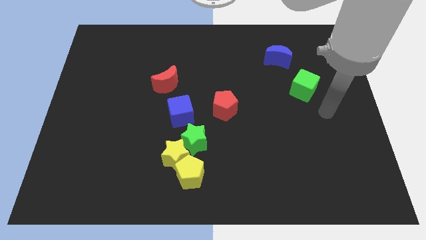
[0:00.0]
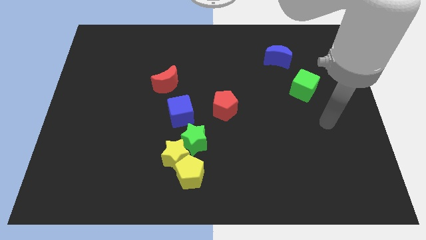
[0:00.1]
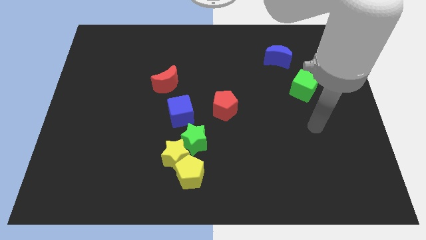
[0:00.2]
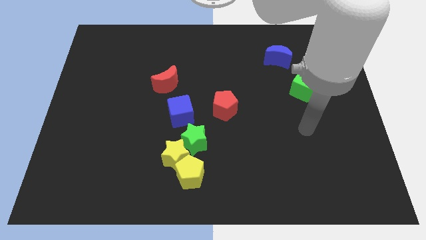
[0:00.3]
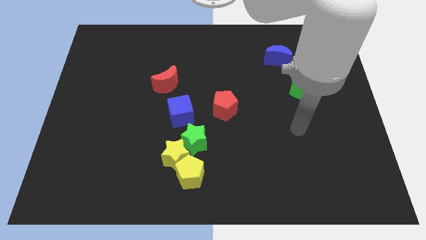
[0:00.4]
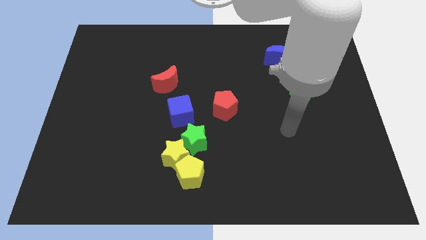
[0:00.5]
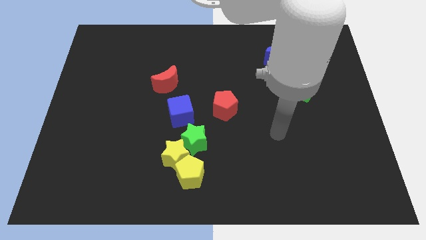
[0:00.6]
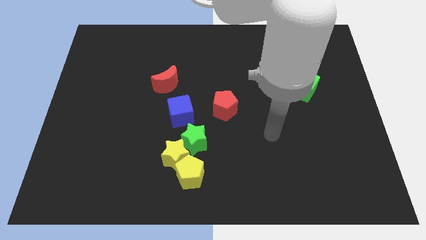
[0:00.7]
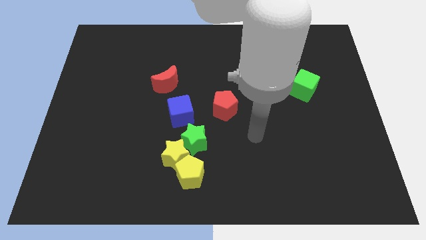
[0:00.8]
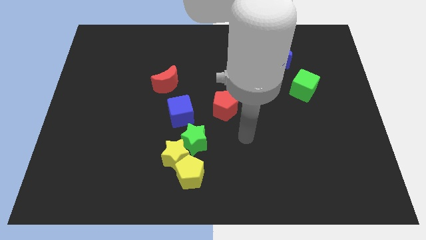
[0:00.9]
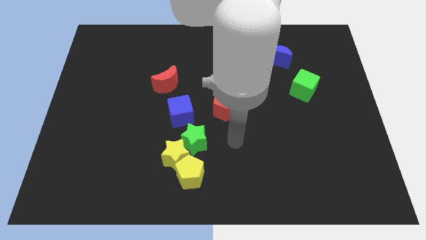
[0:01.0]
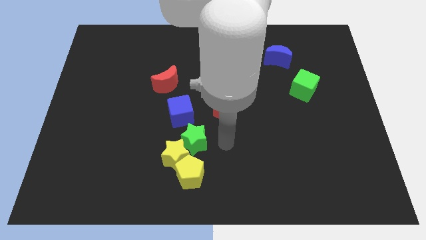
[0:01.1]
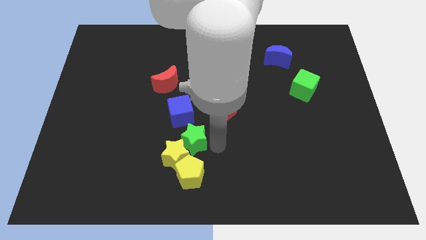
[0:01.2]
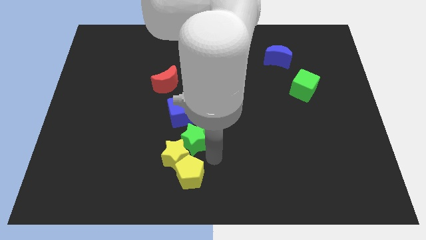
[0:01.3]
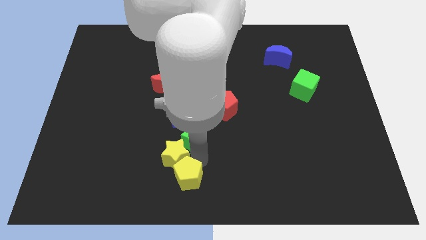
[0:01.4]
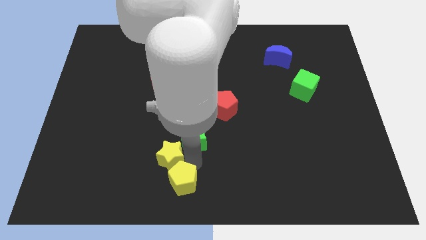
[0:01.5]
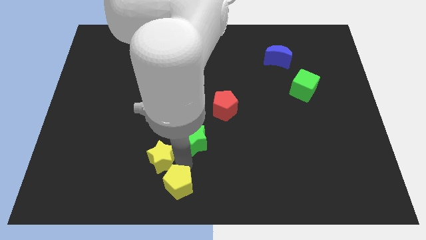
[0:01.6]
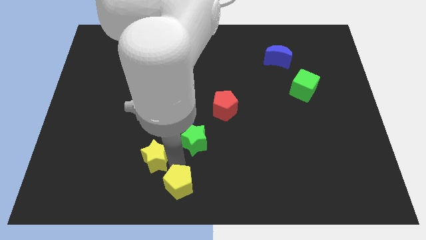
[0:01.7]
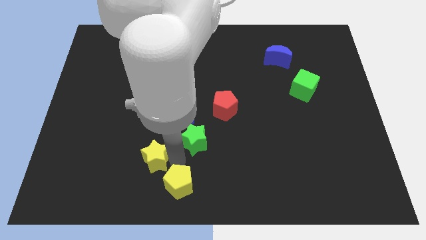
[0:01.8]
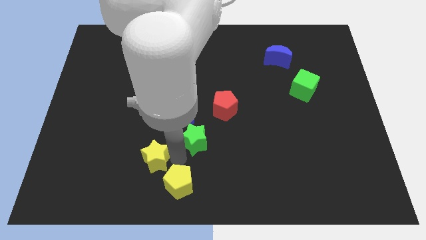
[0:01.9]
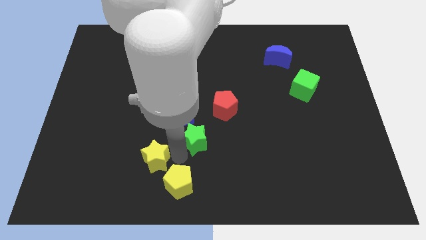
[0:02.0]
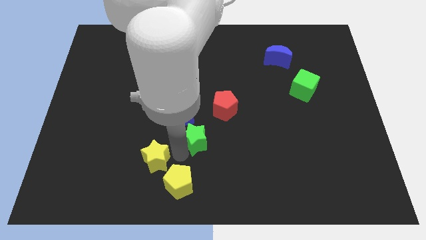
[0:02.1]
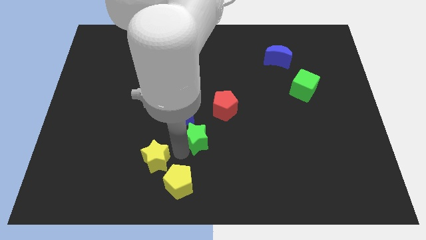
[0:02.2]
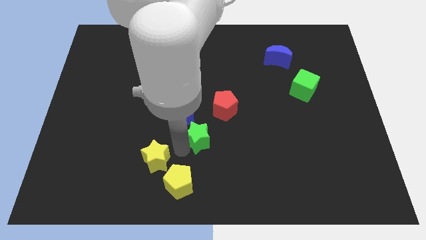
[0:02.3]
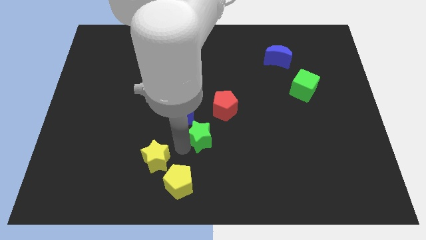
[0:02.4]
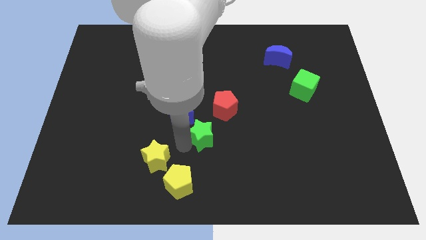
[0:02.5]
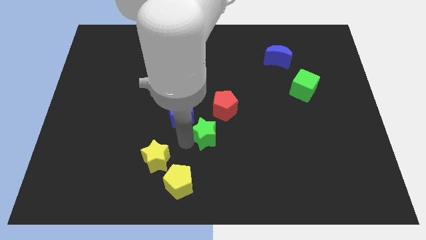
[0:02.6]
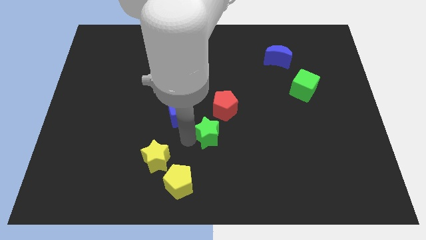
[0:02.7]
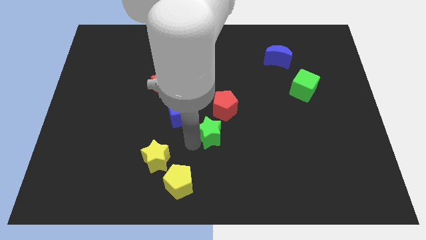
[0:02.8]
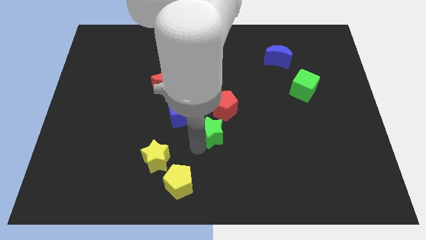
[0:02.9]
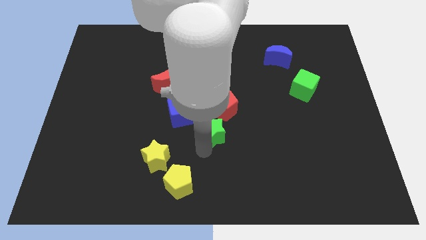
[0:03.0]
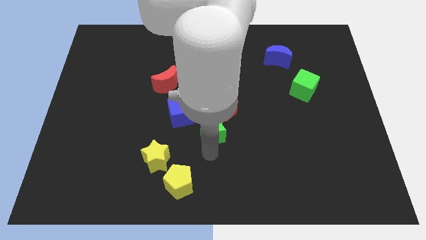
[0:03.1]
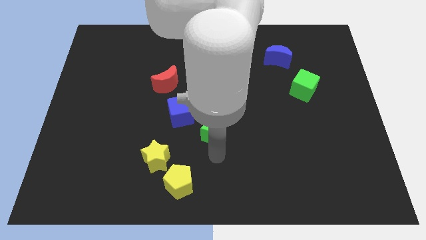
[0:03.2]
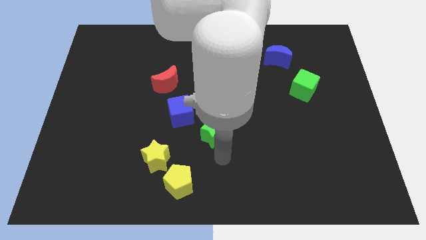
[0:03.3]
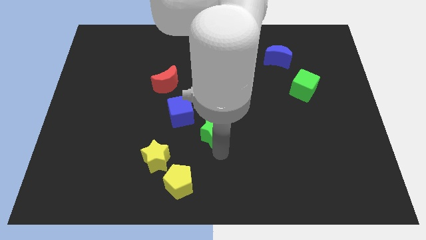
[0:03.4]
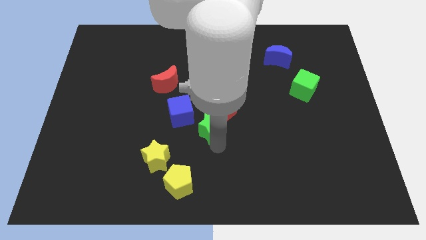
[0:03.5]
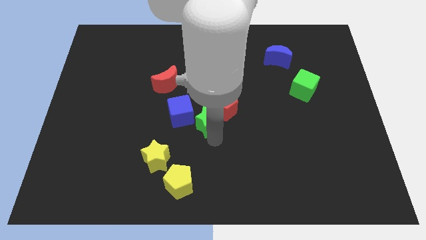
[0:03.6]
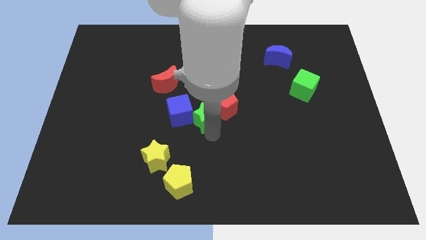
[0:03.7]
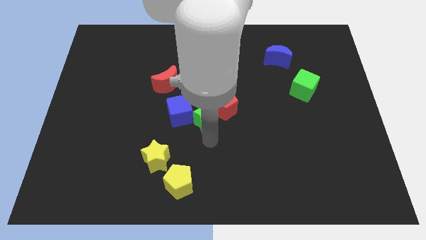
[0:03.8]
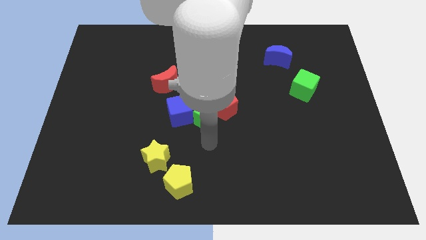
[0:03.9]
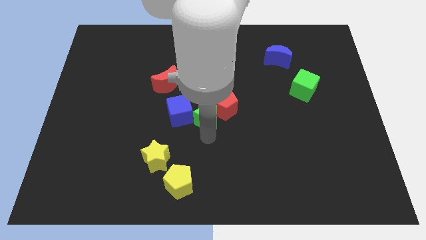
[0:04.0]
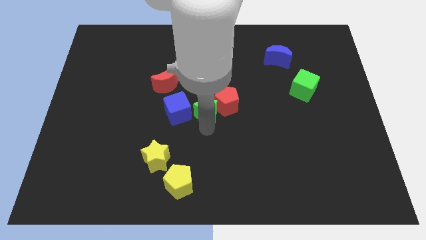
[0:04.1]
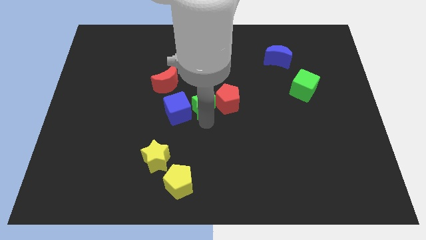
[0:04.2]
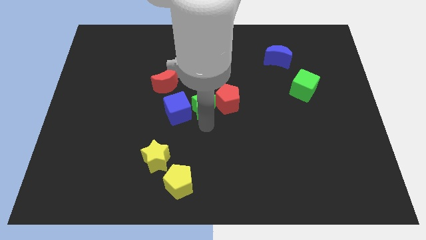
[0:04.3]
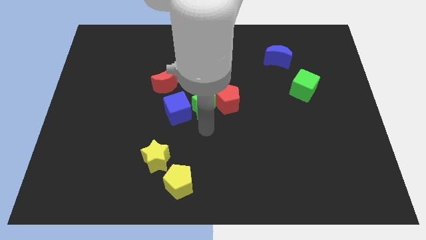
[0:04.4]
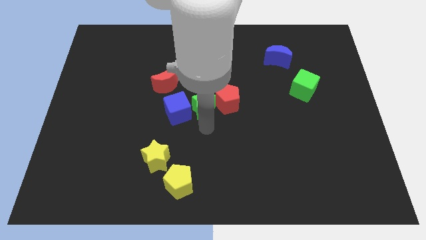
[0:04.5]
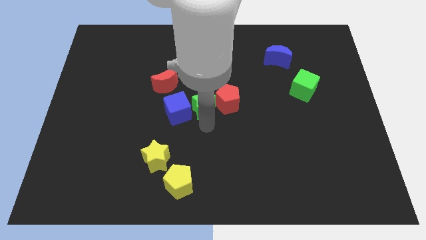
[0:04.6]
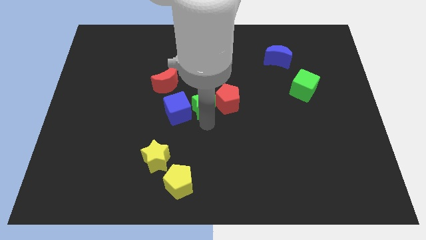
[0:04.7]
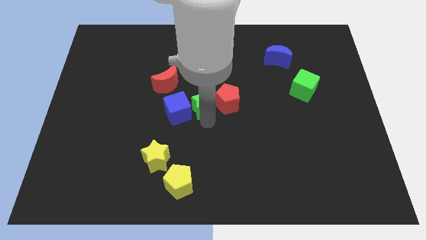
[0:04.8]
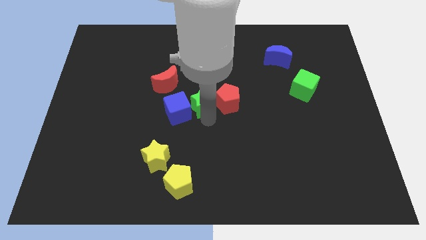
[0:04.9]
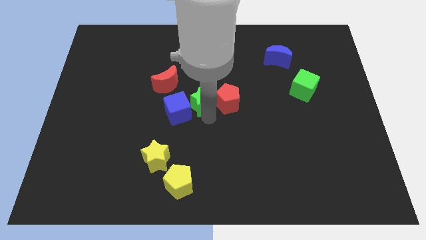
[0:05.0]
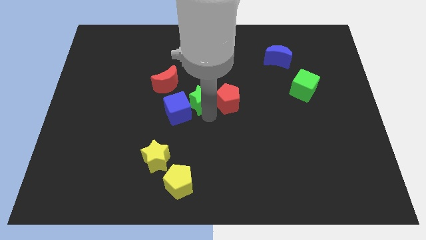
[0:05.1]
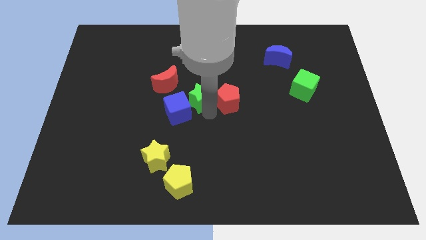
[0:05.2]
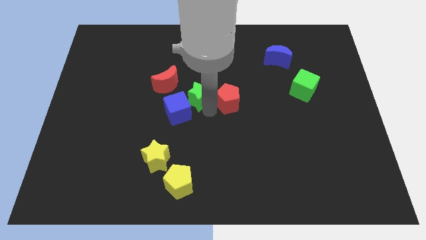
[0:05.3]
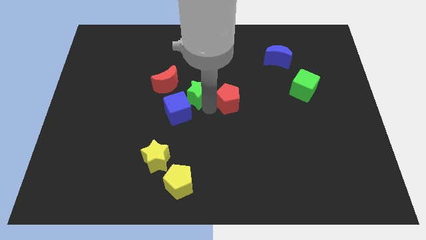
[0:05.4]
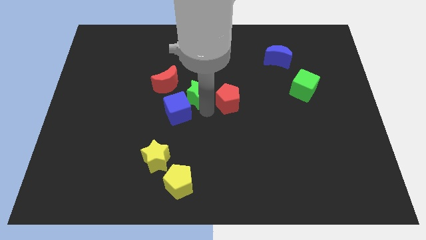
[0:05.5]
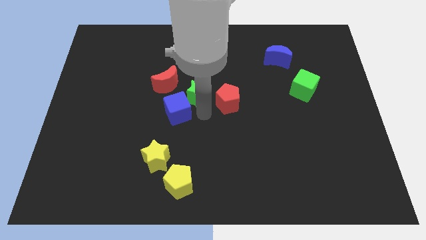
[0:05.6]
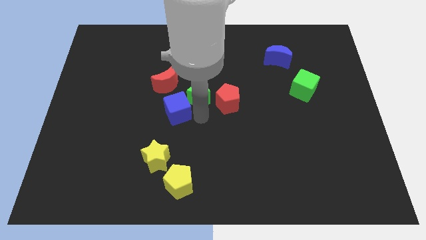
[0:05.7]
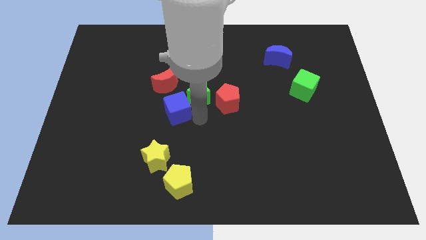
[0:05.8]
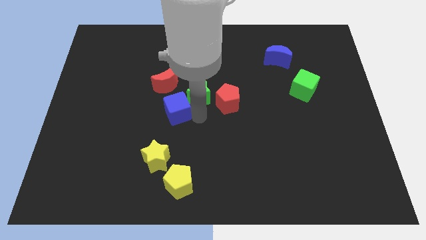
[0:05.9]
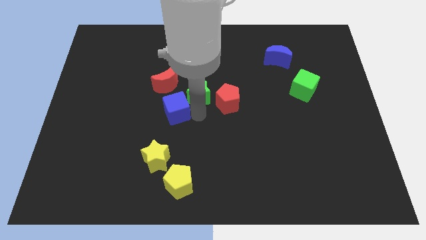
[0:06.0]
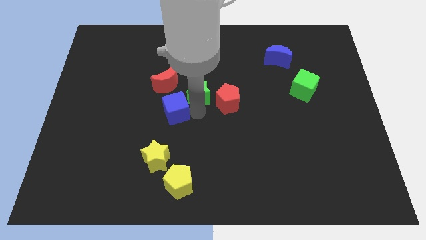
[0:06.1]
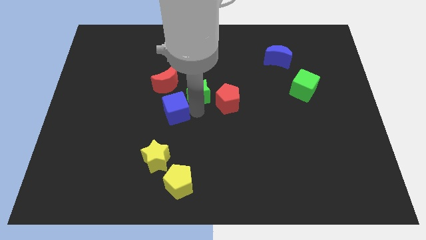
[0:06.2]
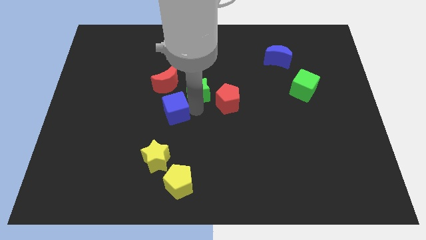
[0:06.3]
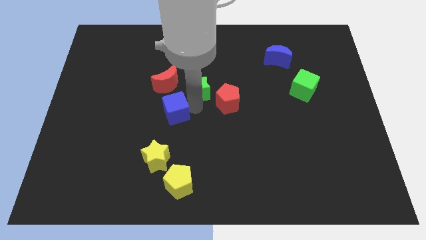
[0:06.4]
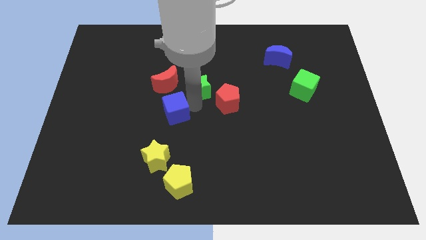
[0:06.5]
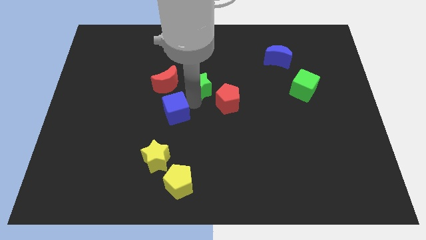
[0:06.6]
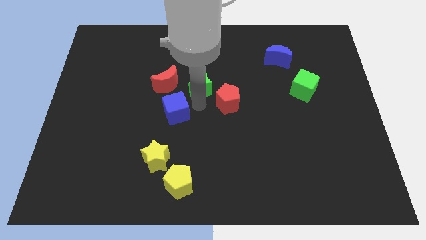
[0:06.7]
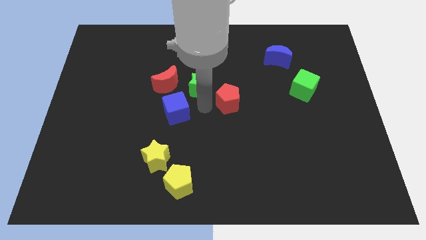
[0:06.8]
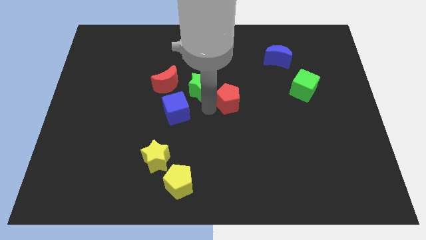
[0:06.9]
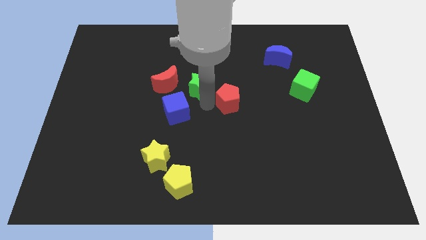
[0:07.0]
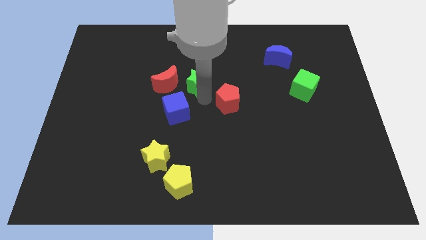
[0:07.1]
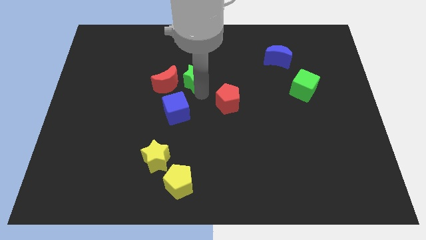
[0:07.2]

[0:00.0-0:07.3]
push the green star to the top right of the red moon
